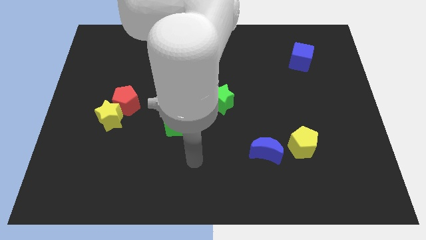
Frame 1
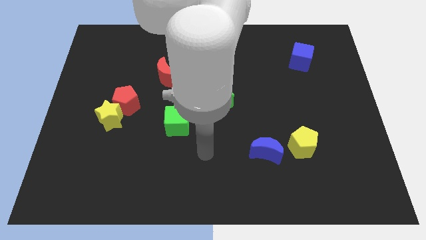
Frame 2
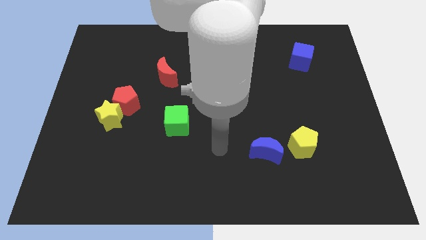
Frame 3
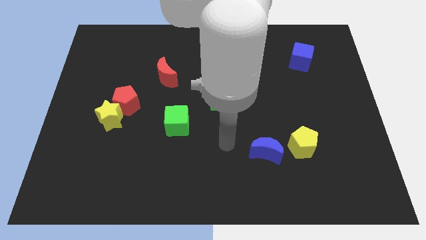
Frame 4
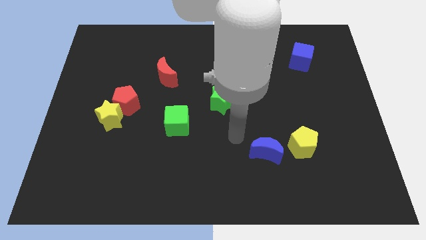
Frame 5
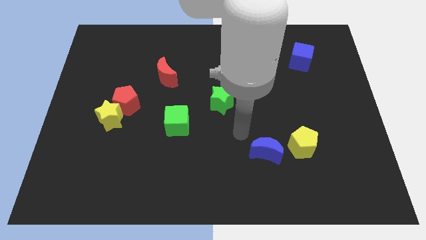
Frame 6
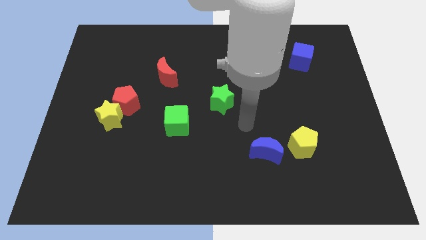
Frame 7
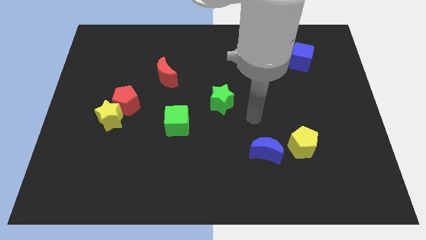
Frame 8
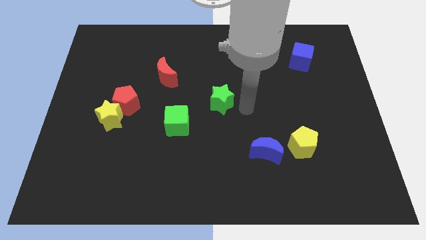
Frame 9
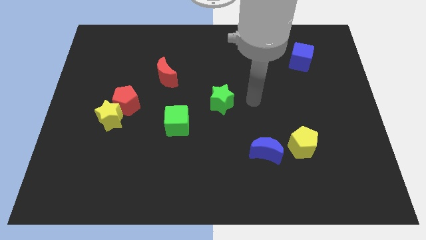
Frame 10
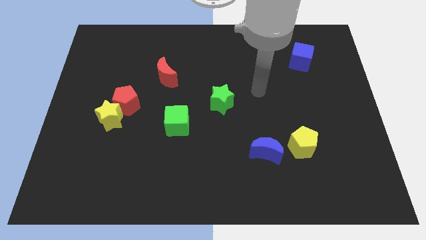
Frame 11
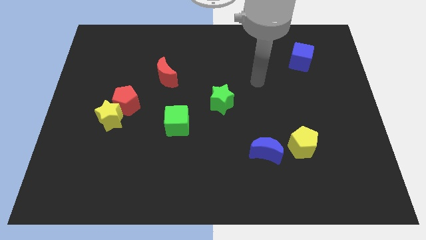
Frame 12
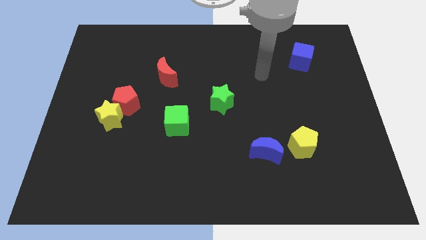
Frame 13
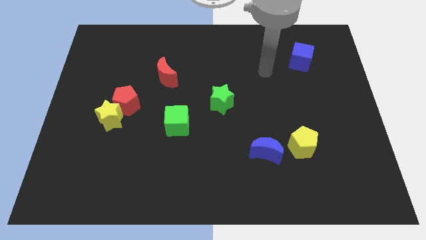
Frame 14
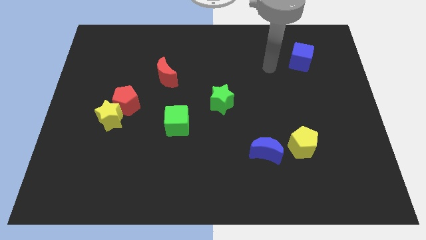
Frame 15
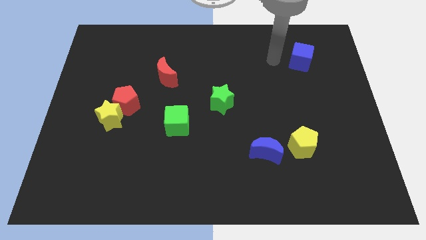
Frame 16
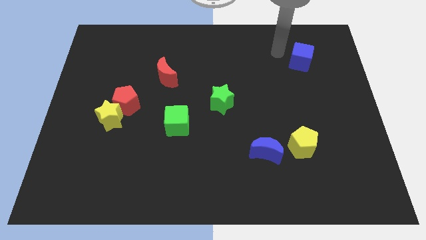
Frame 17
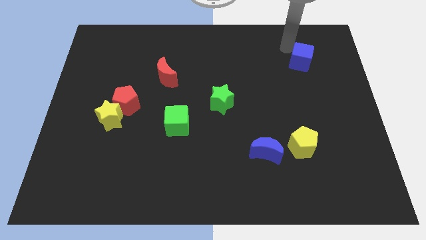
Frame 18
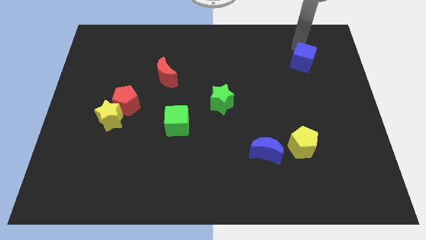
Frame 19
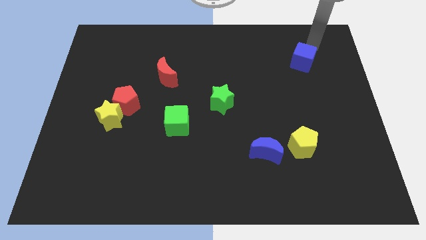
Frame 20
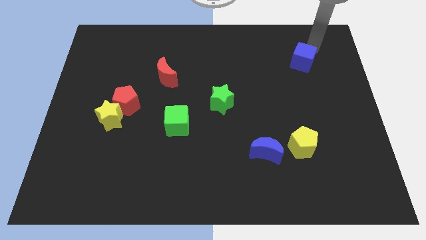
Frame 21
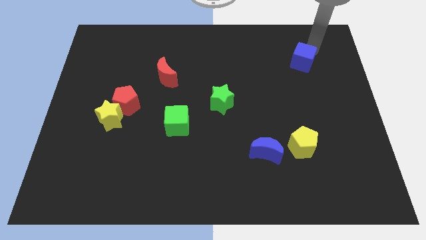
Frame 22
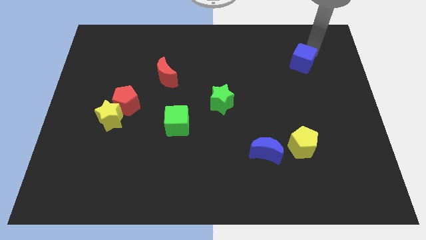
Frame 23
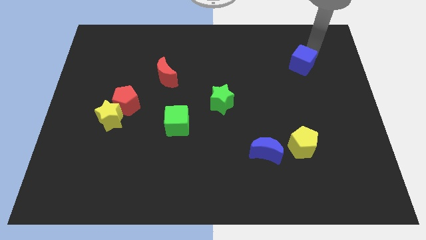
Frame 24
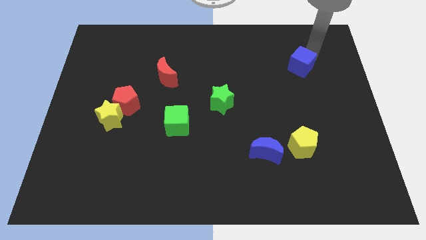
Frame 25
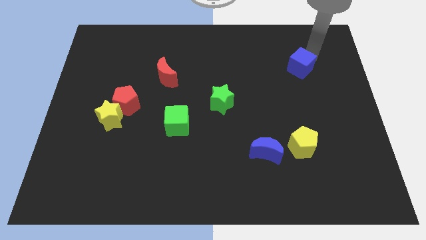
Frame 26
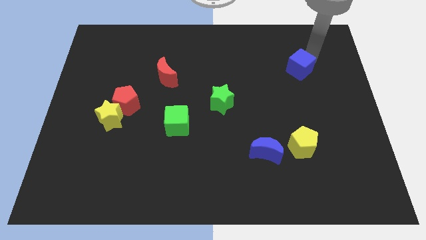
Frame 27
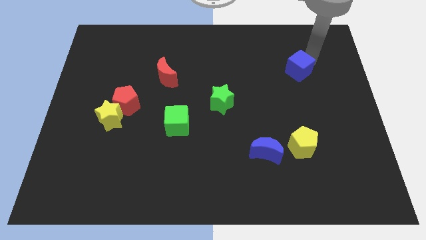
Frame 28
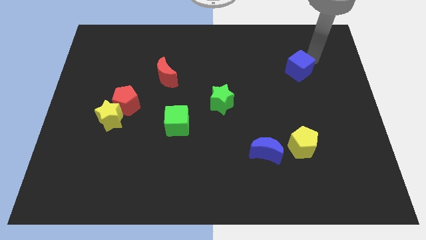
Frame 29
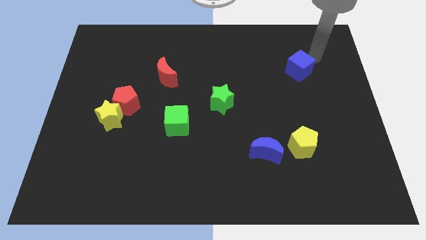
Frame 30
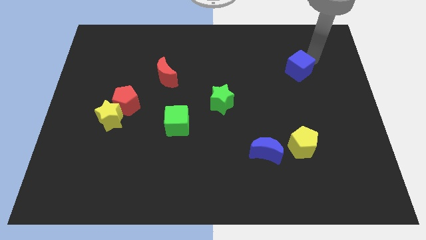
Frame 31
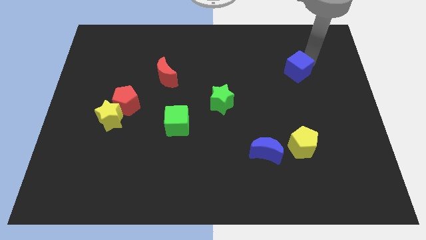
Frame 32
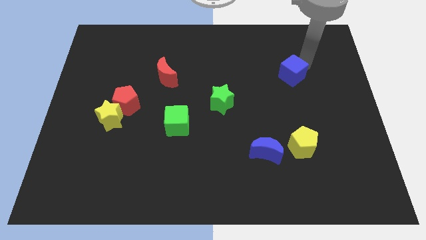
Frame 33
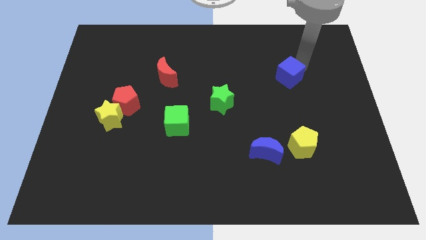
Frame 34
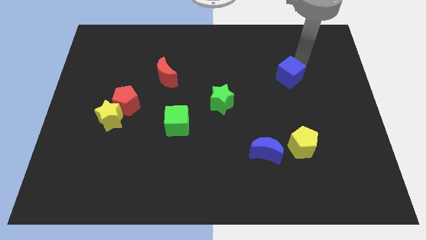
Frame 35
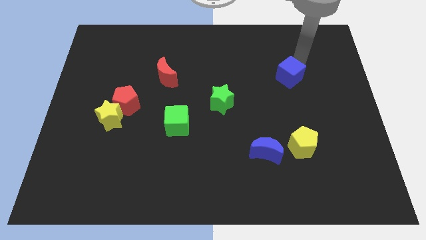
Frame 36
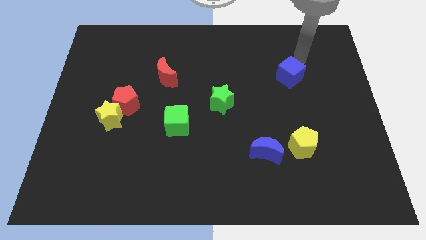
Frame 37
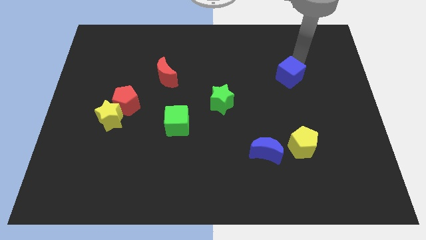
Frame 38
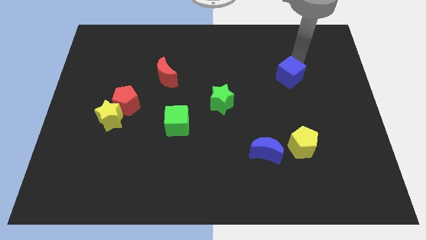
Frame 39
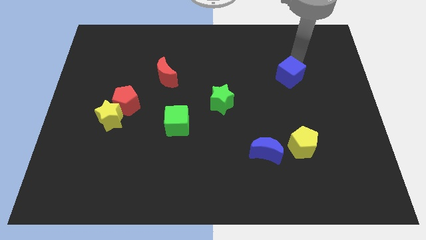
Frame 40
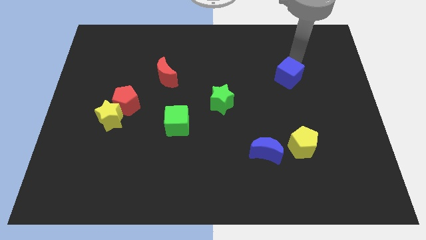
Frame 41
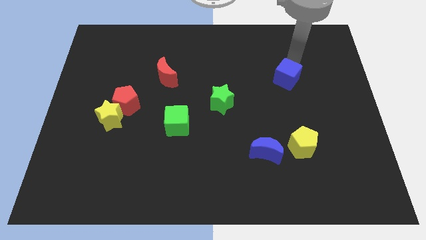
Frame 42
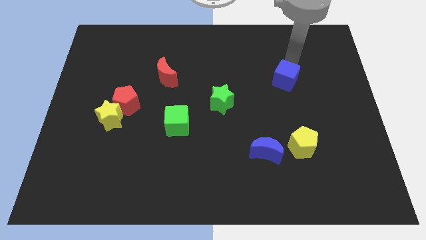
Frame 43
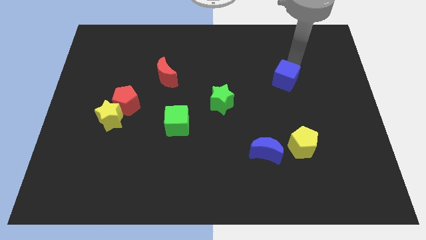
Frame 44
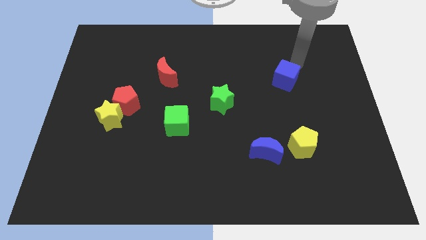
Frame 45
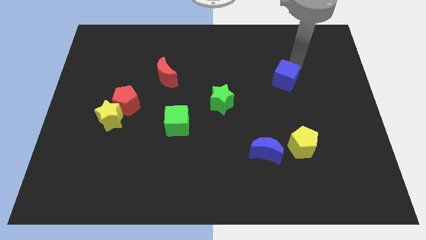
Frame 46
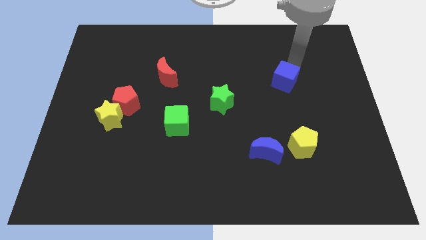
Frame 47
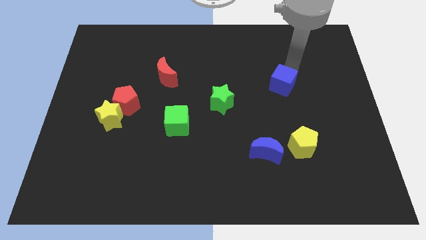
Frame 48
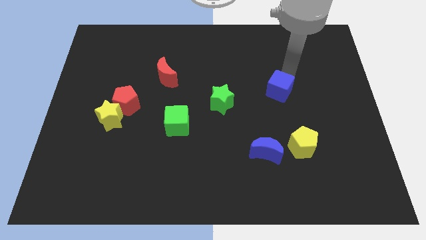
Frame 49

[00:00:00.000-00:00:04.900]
move the blue cube to the right side of the green star

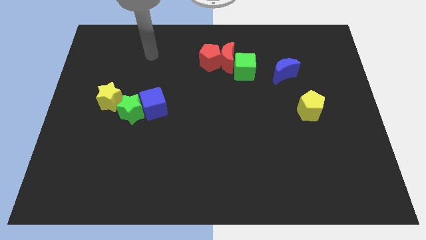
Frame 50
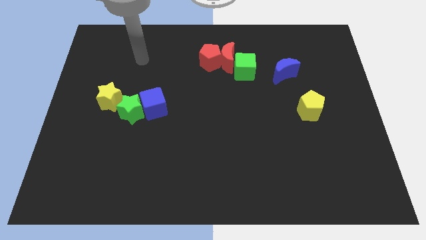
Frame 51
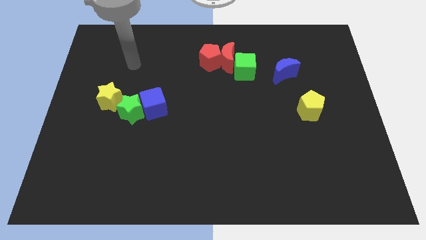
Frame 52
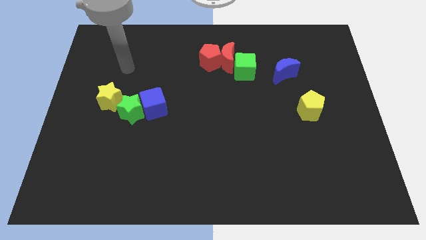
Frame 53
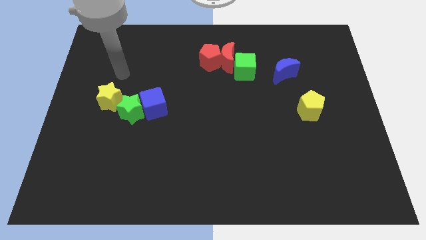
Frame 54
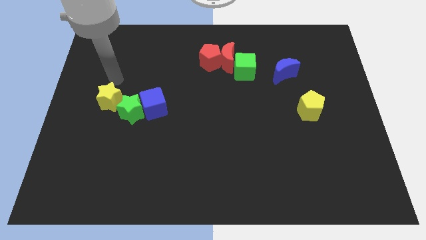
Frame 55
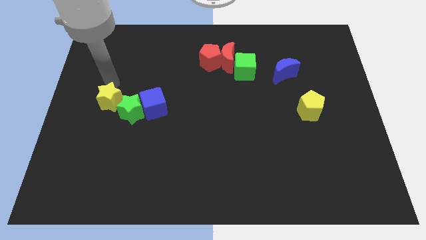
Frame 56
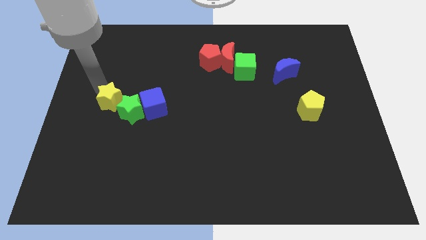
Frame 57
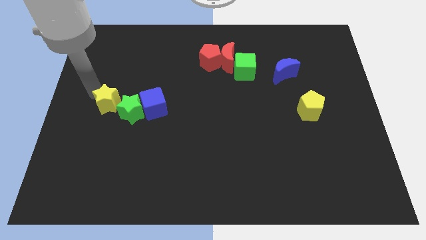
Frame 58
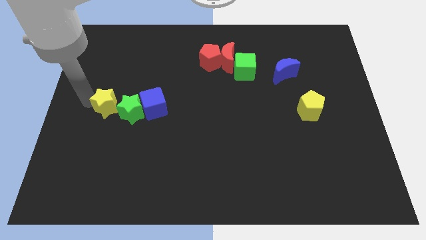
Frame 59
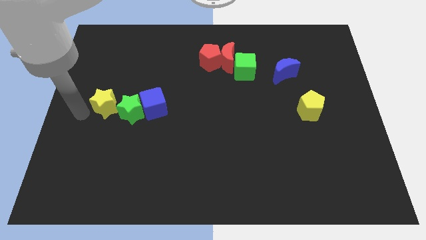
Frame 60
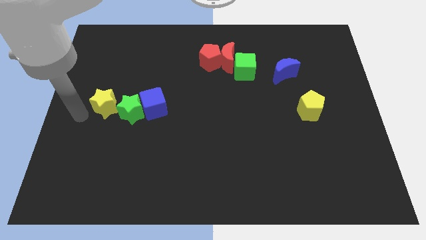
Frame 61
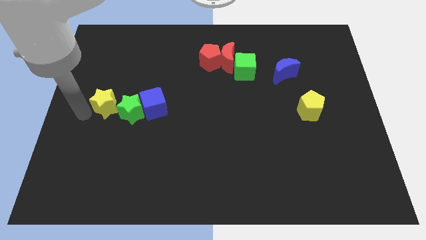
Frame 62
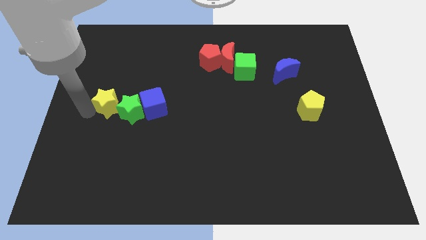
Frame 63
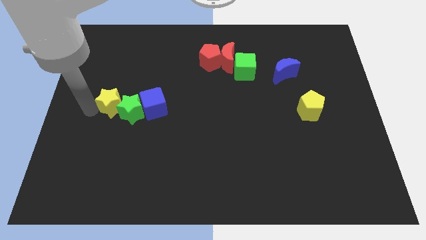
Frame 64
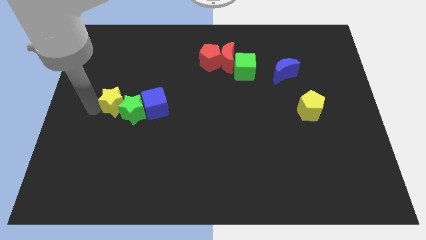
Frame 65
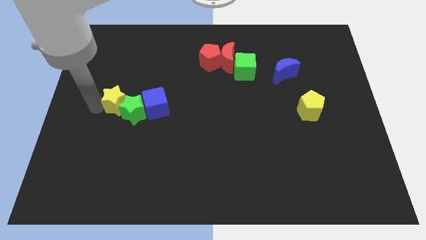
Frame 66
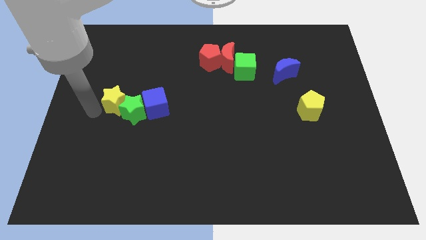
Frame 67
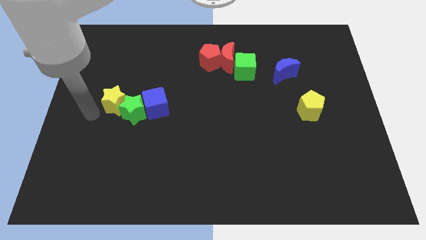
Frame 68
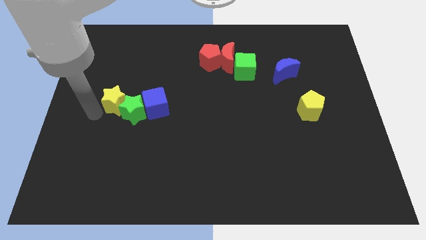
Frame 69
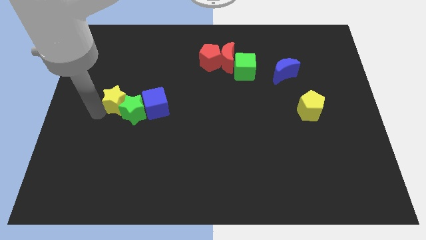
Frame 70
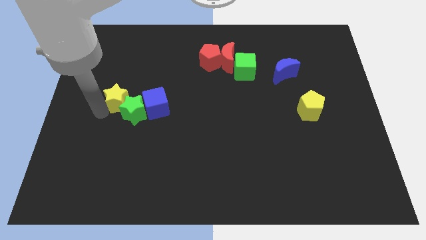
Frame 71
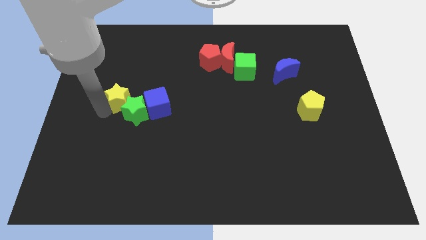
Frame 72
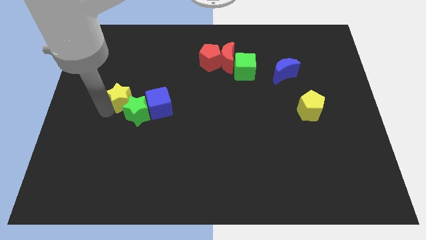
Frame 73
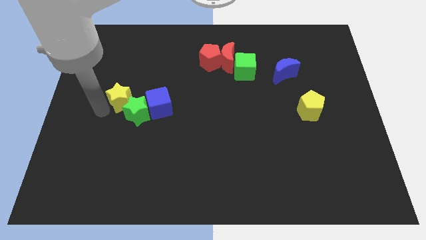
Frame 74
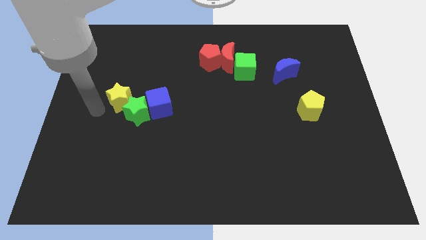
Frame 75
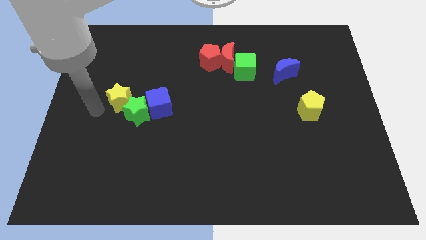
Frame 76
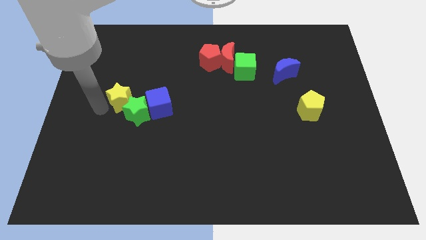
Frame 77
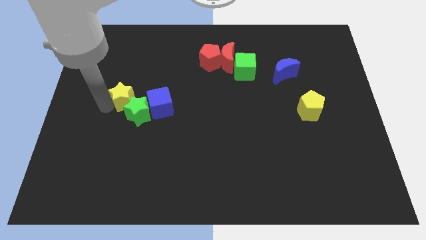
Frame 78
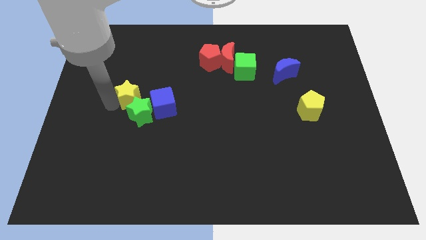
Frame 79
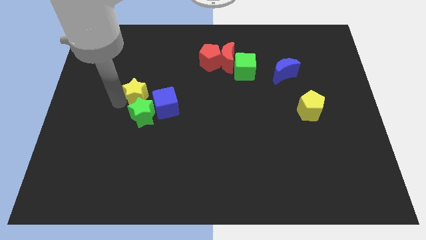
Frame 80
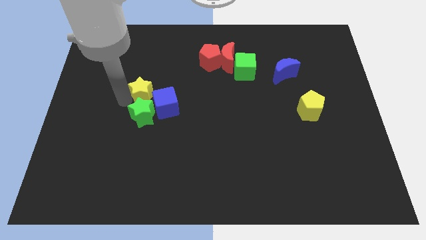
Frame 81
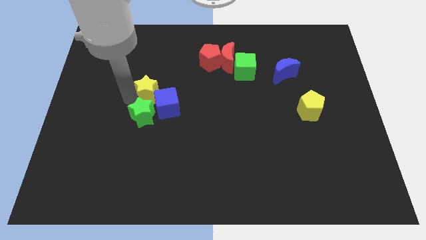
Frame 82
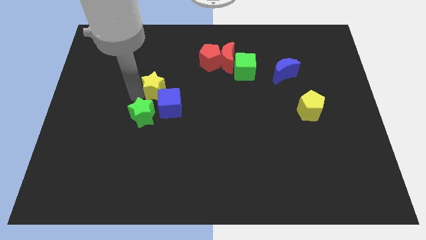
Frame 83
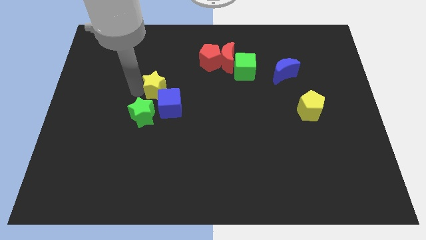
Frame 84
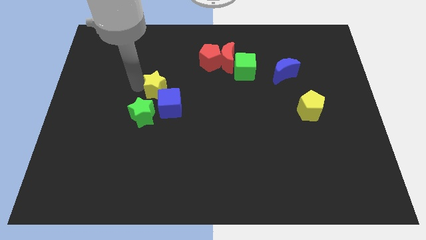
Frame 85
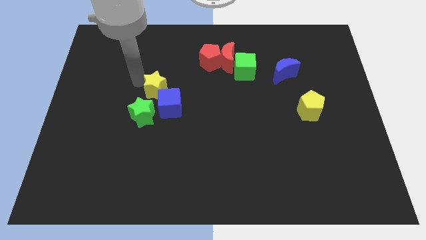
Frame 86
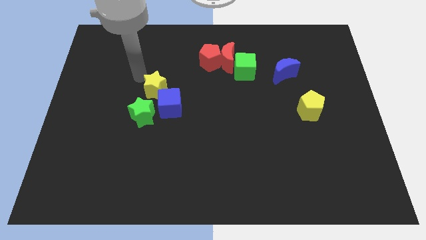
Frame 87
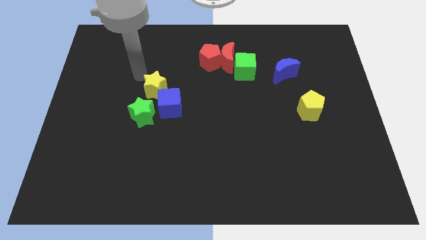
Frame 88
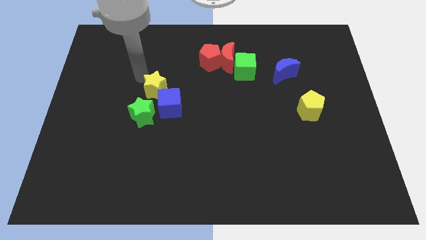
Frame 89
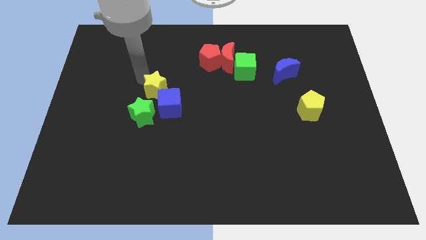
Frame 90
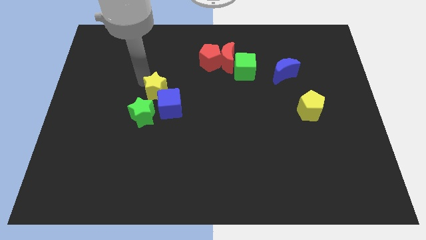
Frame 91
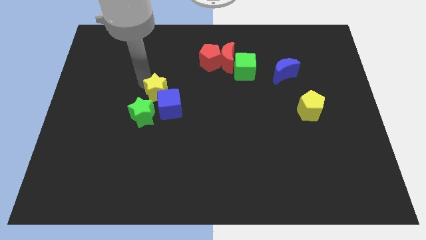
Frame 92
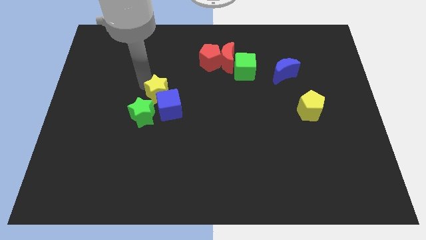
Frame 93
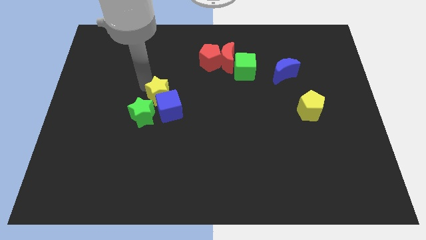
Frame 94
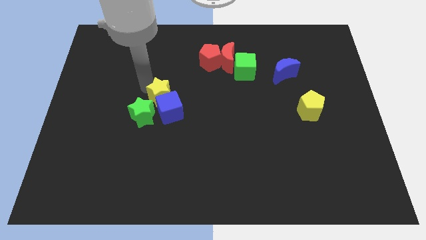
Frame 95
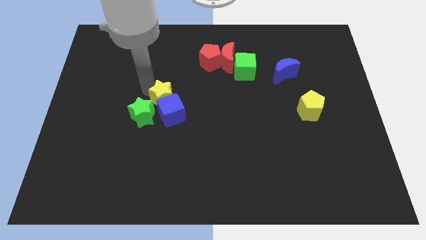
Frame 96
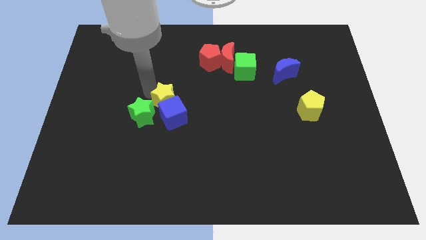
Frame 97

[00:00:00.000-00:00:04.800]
put the yellow star right of the green star
